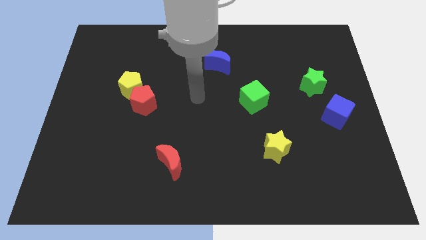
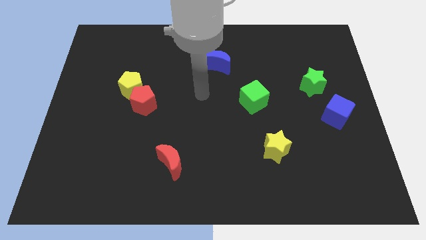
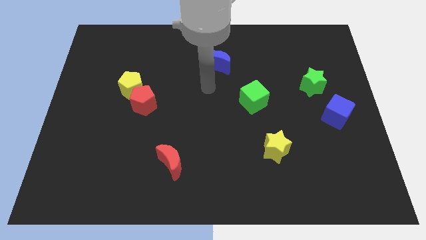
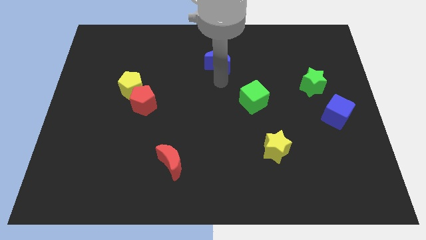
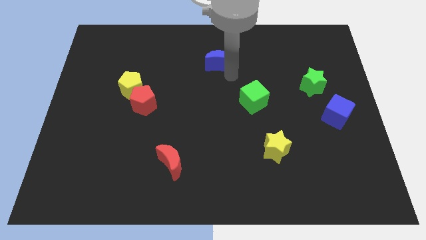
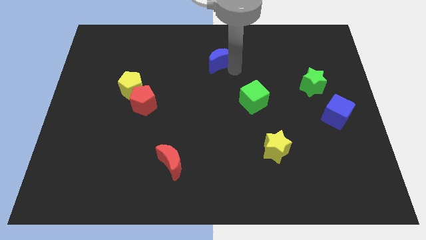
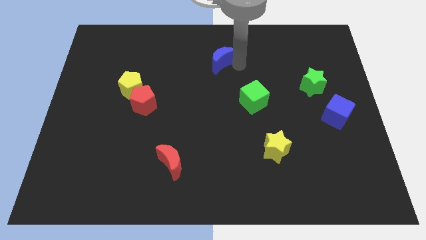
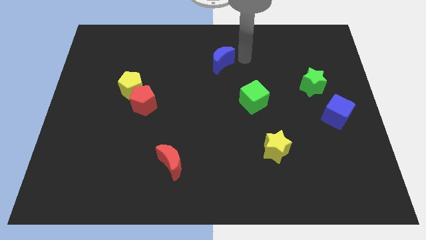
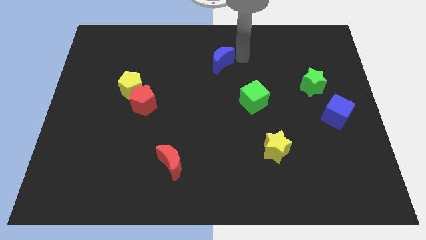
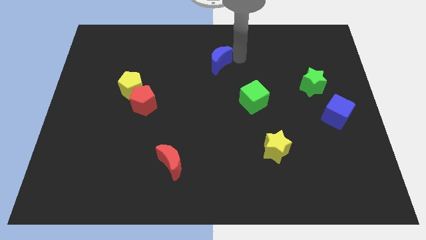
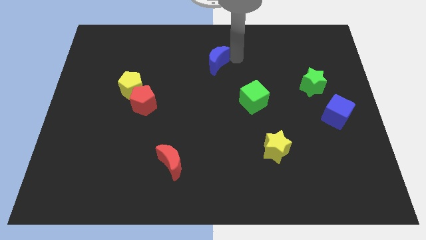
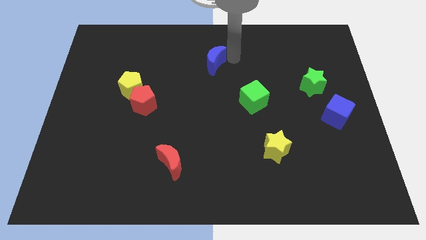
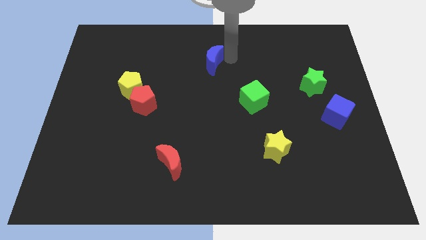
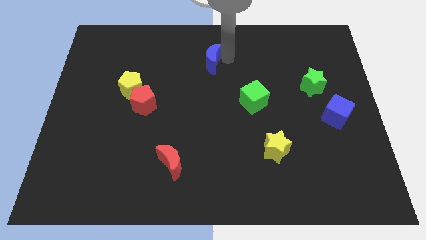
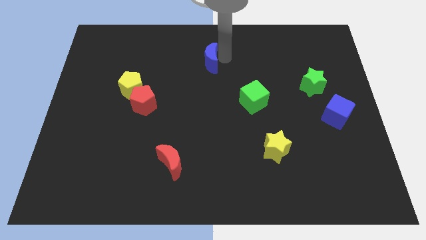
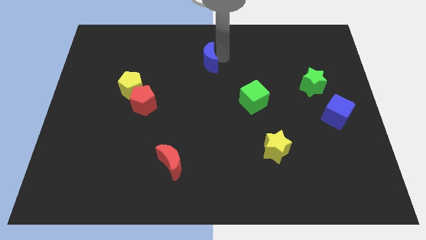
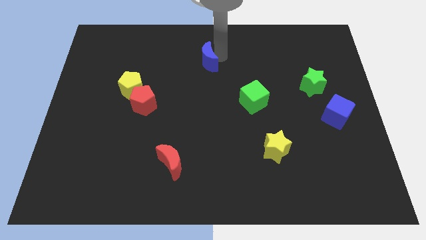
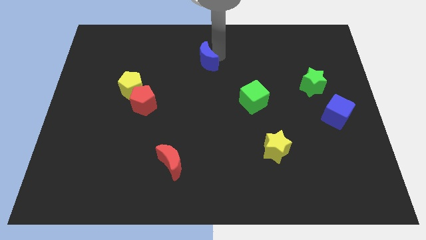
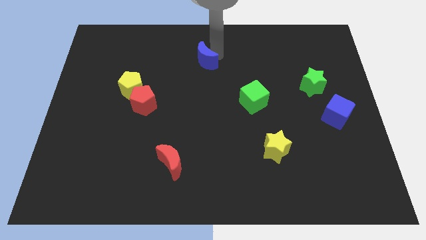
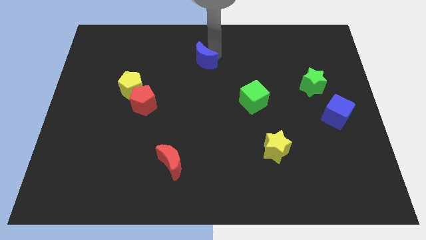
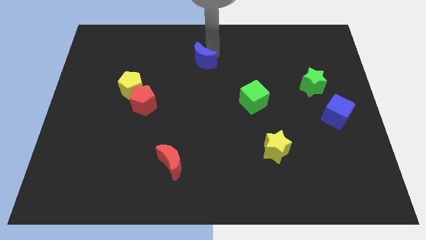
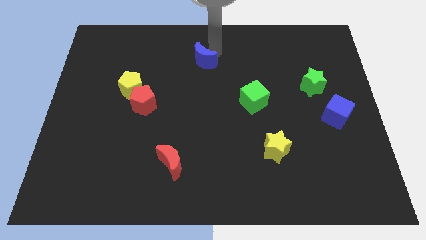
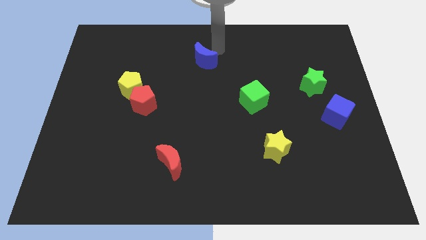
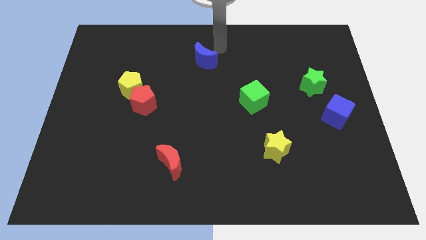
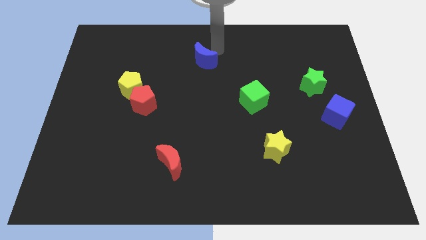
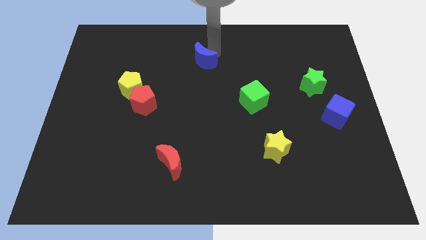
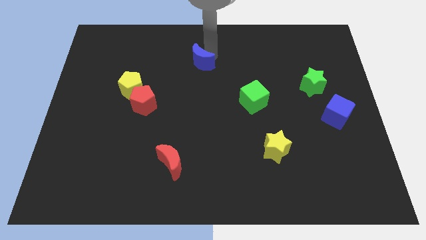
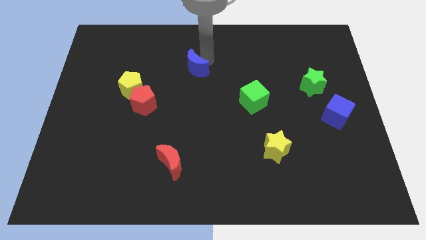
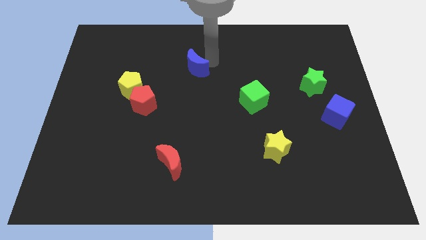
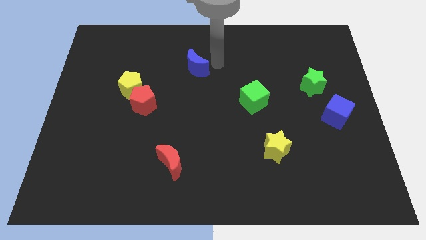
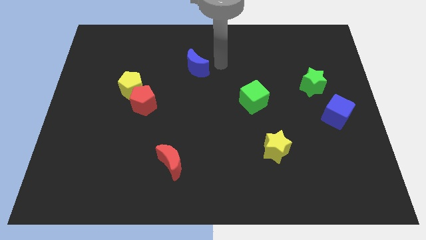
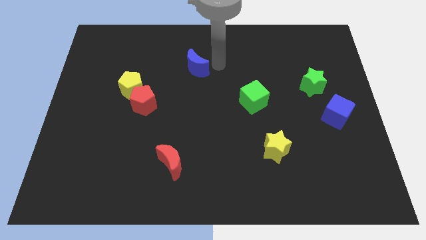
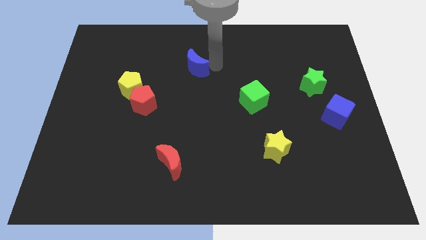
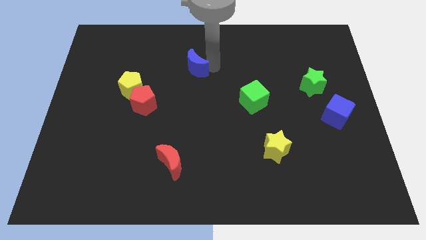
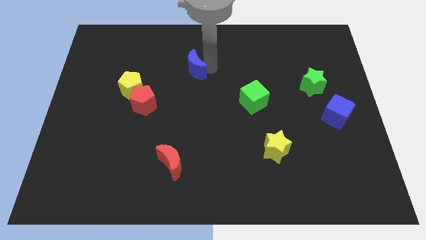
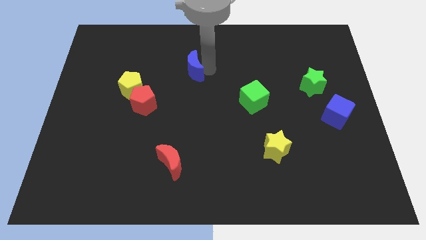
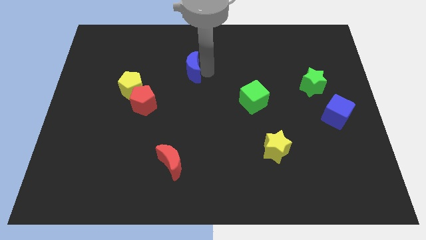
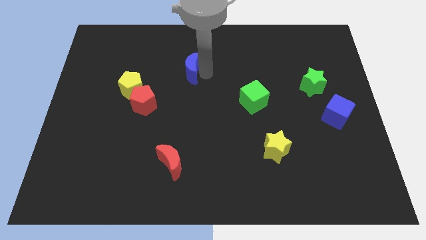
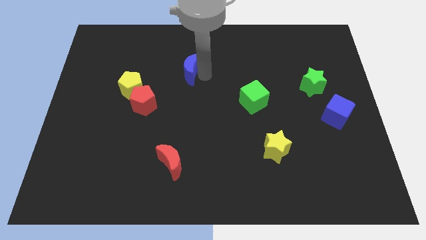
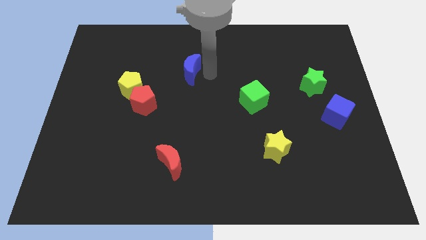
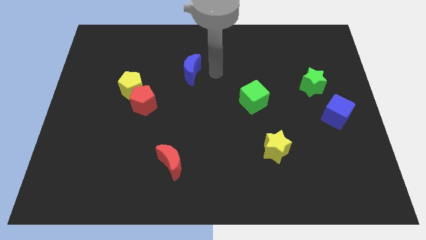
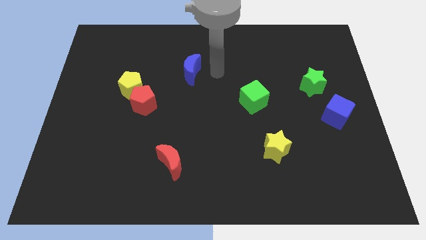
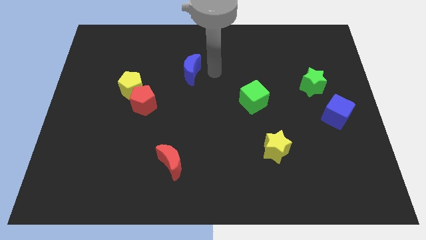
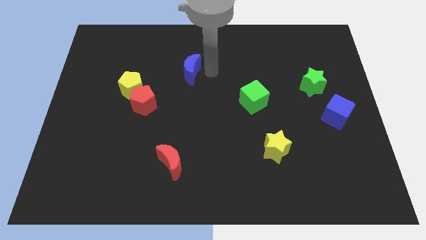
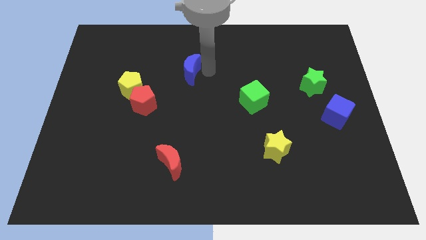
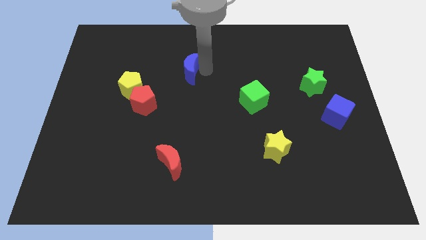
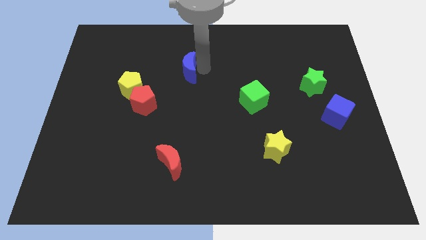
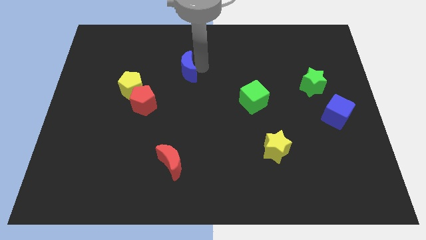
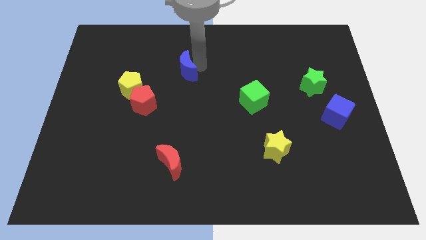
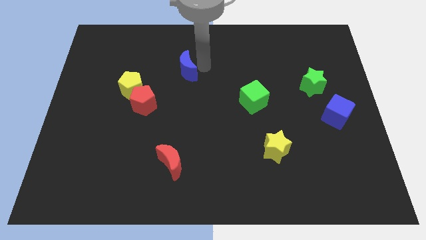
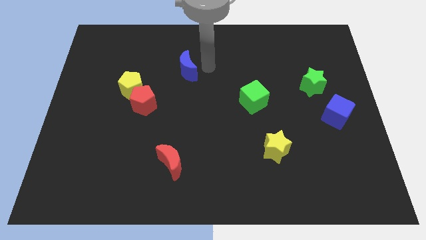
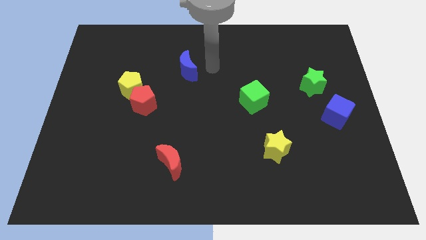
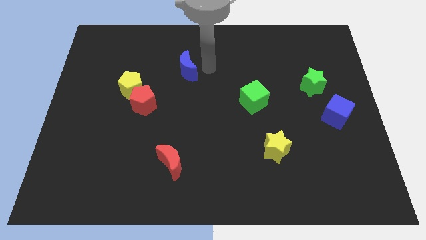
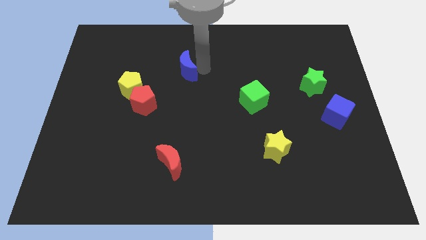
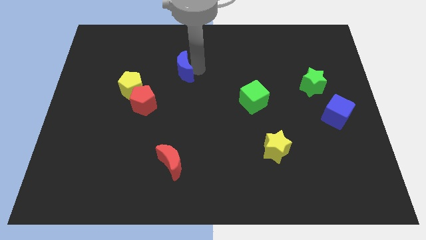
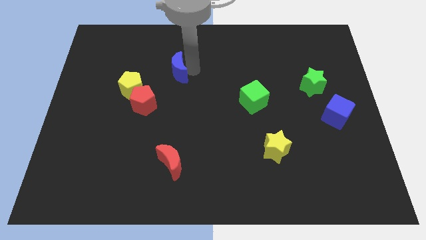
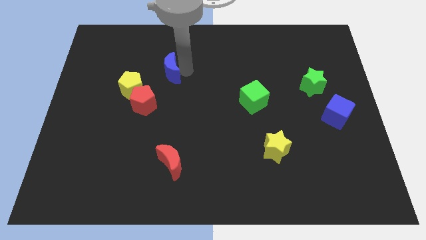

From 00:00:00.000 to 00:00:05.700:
move the blue moon diagonally up and to the right of the yellow pentagon

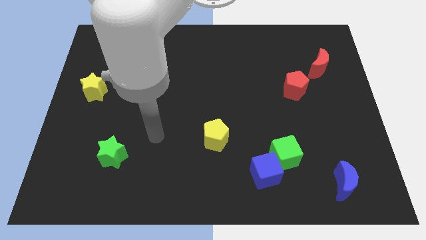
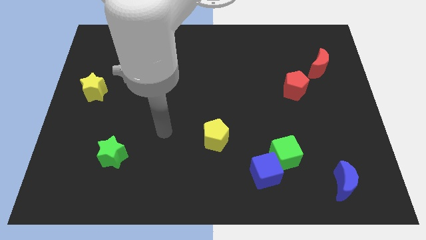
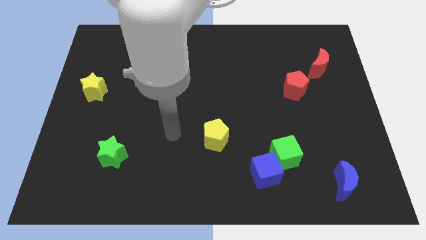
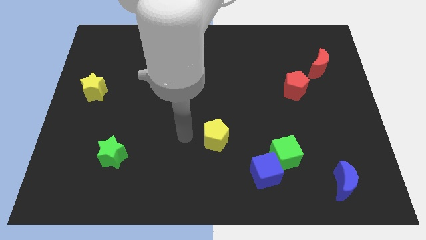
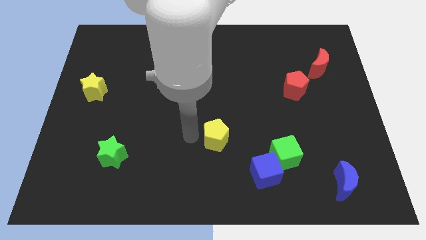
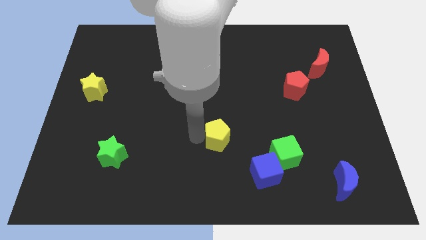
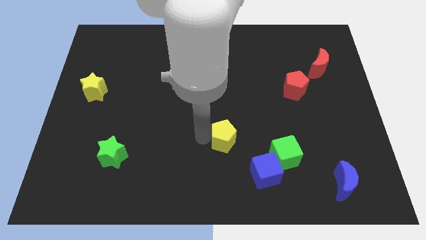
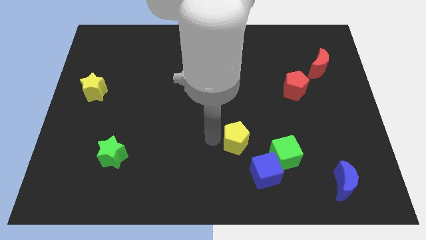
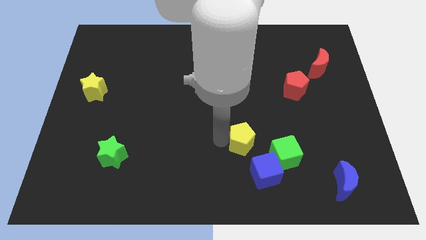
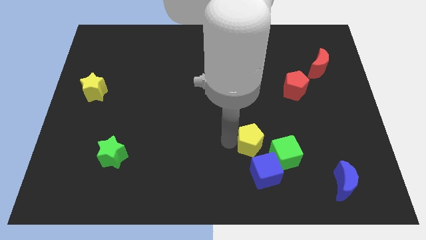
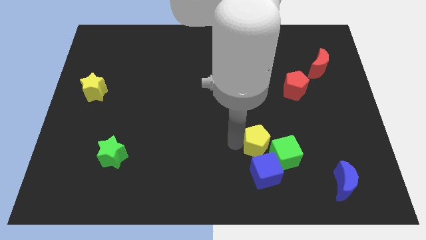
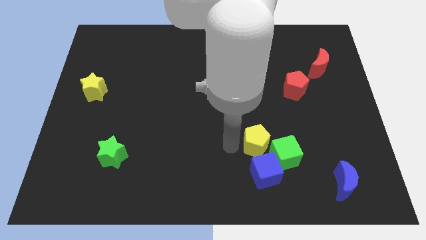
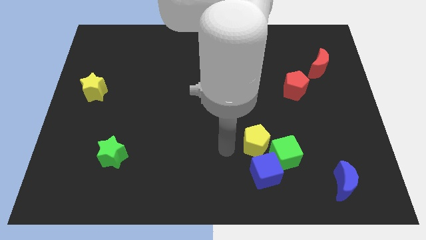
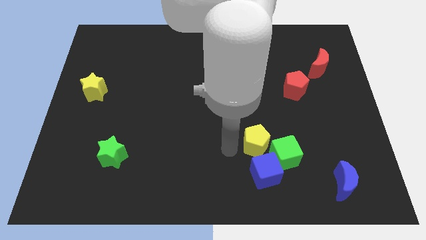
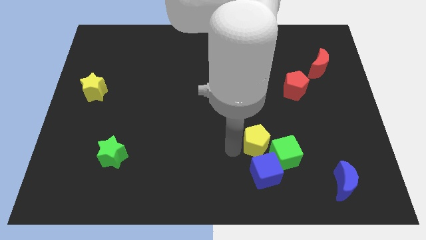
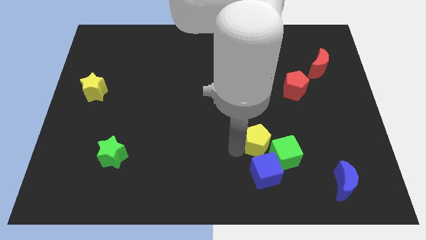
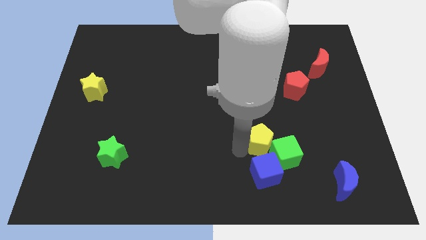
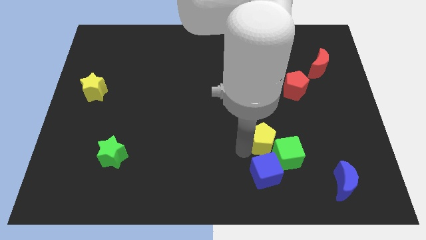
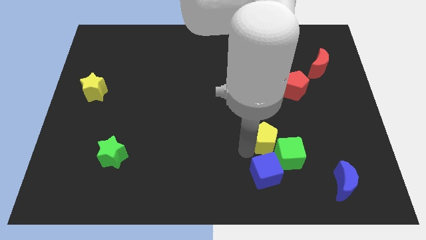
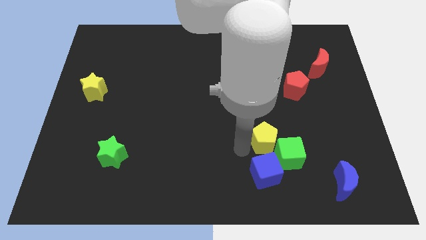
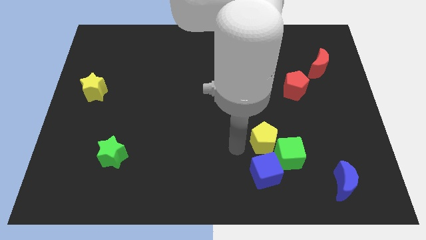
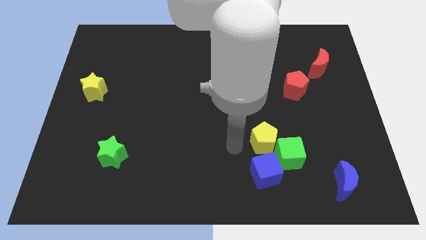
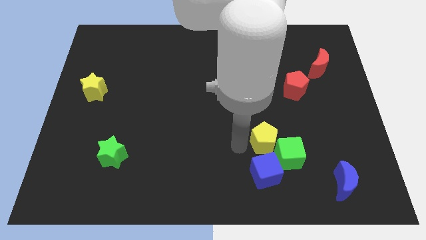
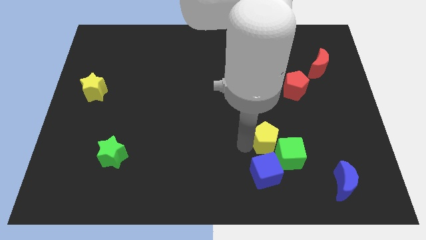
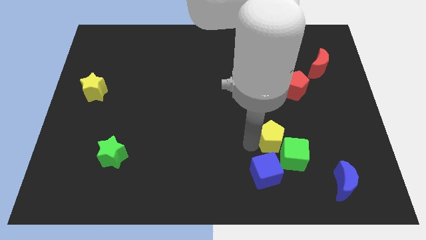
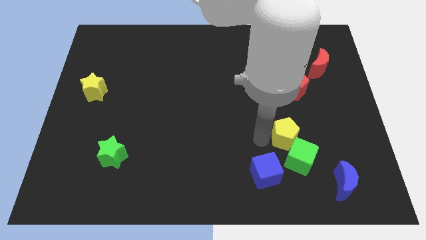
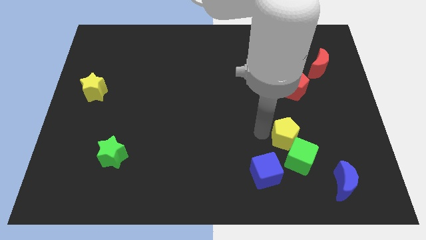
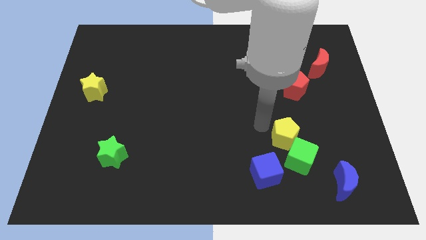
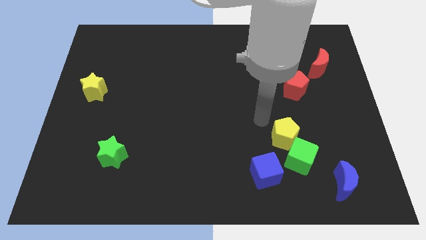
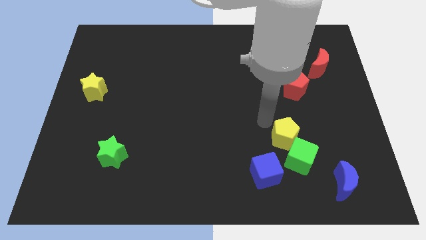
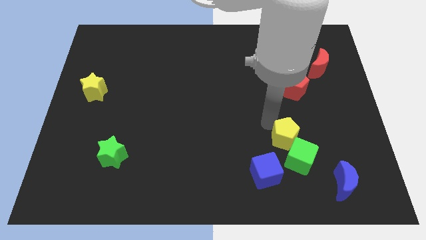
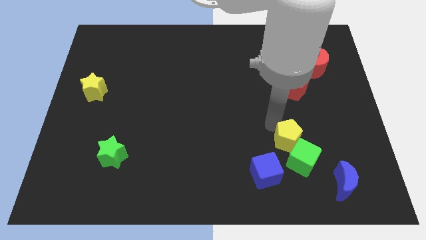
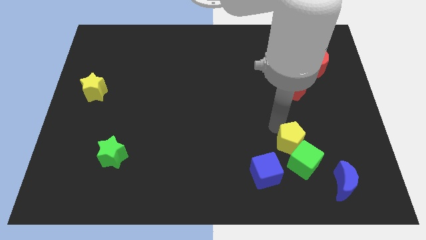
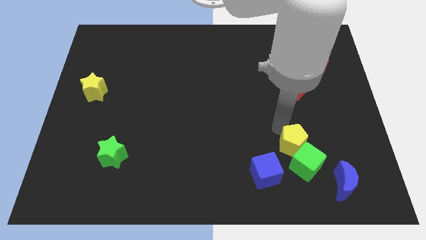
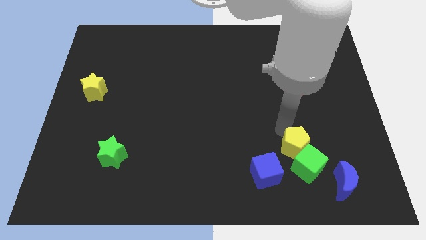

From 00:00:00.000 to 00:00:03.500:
move the yellow pentagon diagonally up and to the left of the blue moon
